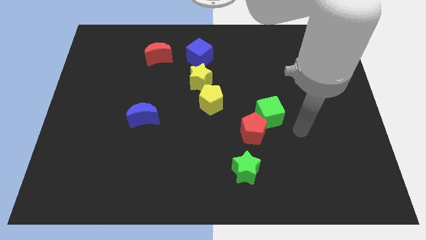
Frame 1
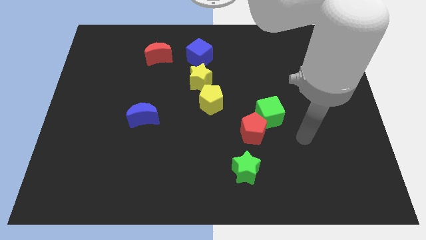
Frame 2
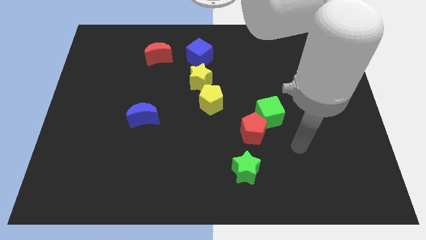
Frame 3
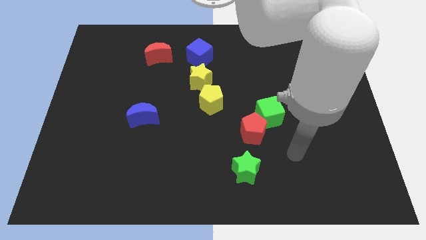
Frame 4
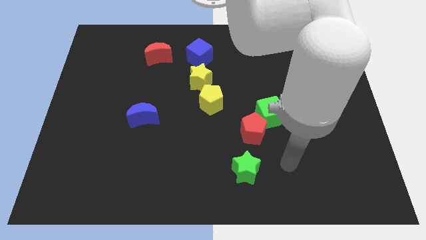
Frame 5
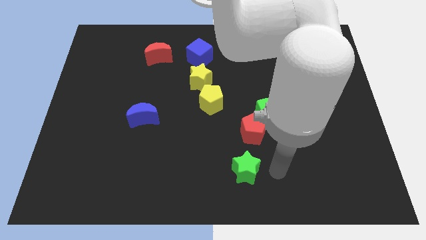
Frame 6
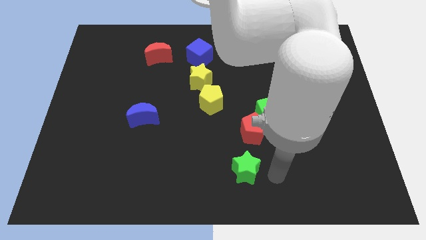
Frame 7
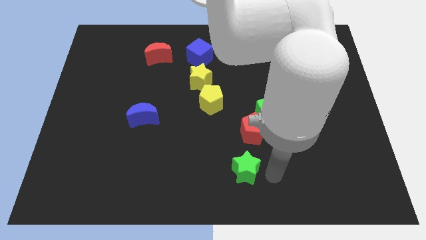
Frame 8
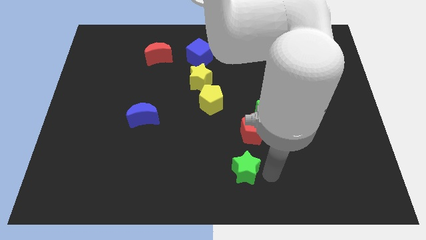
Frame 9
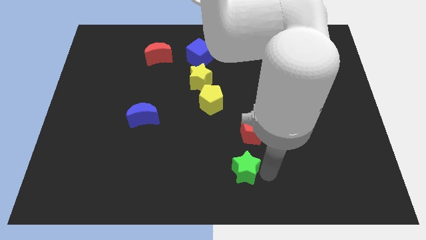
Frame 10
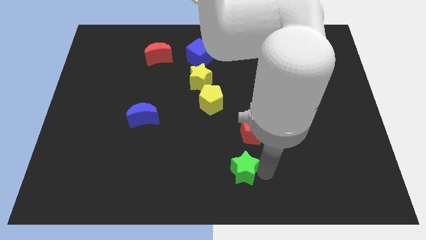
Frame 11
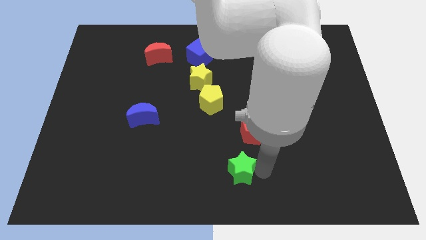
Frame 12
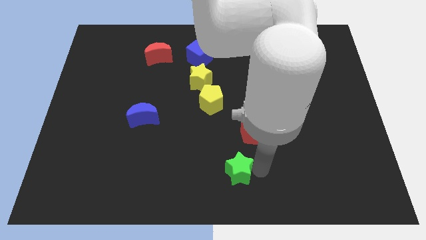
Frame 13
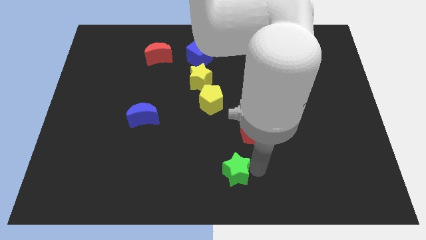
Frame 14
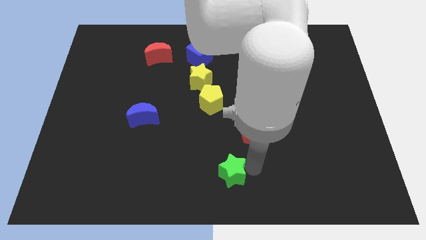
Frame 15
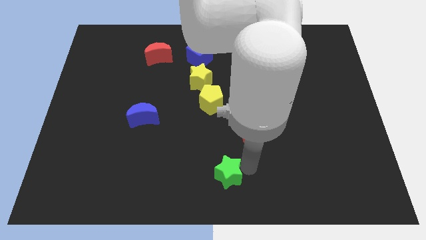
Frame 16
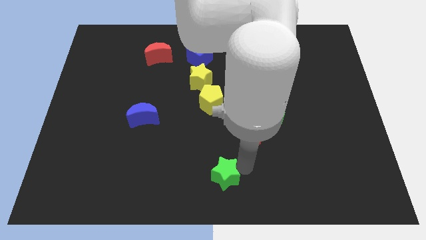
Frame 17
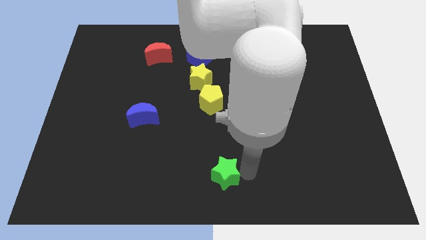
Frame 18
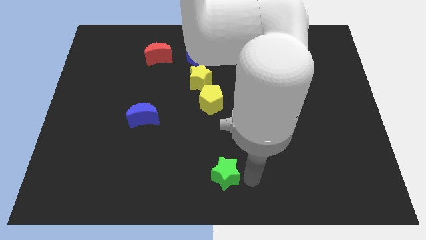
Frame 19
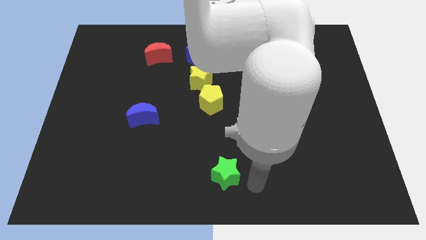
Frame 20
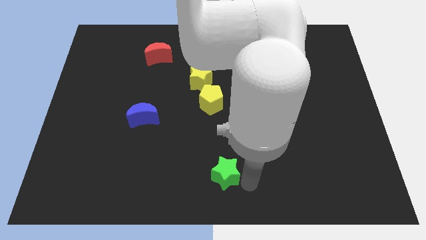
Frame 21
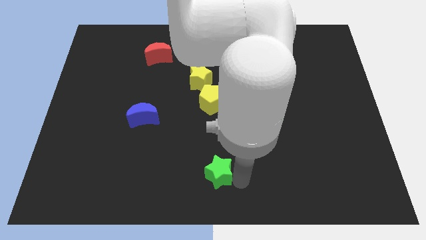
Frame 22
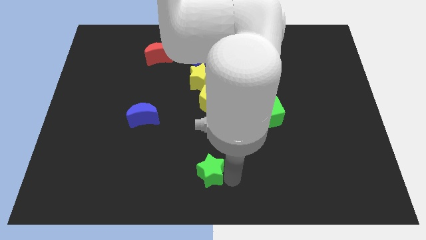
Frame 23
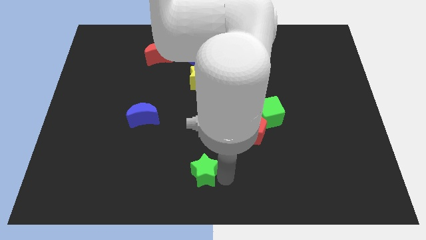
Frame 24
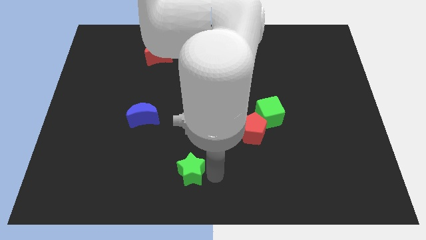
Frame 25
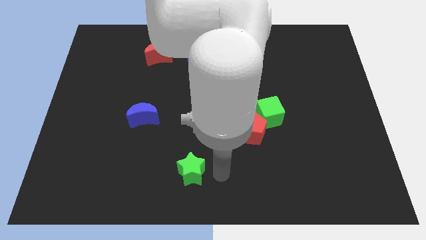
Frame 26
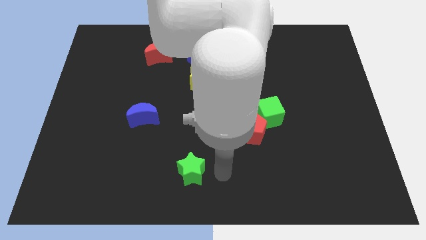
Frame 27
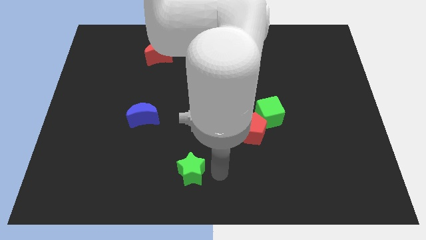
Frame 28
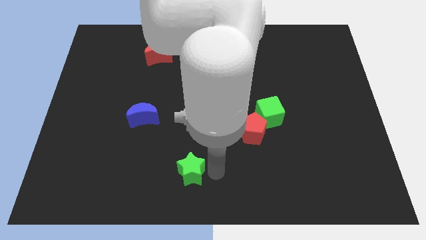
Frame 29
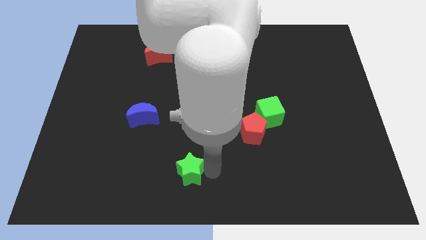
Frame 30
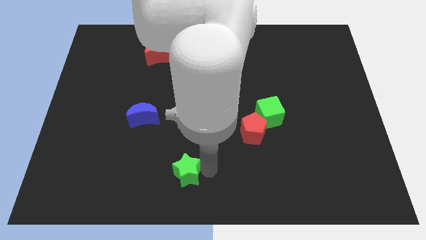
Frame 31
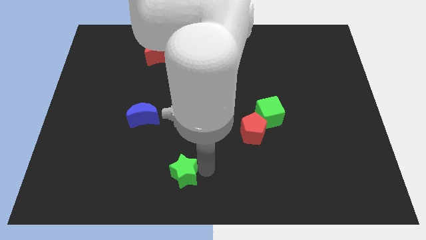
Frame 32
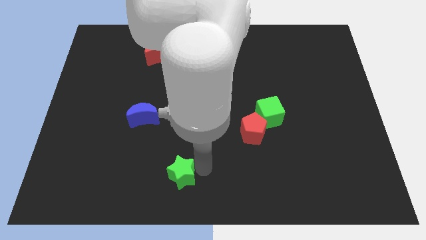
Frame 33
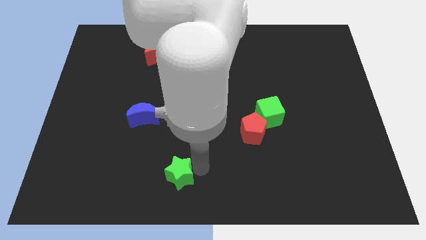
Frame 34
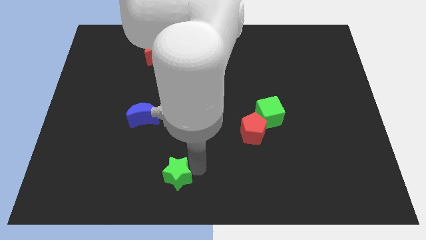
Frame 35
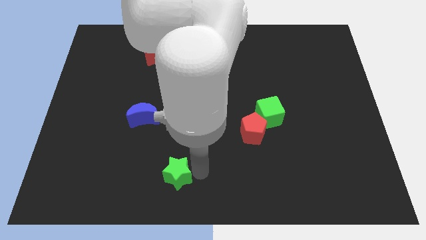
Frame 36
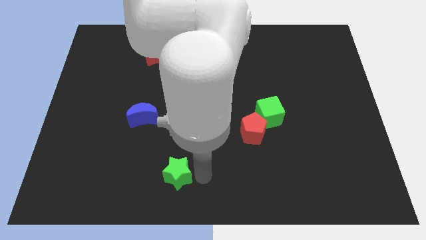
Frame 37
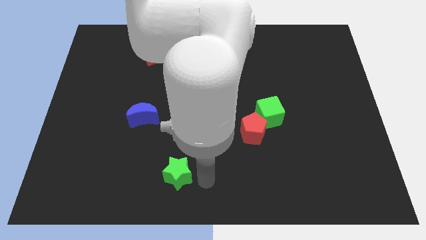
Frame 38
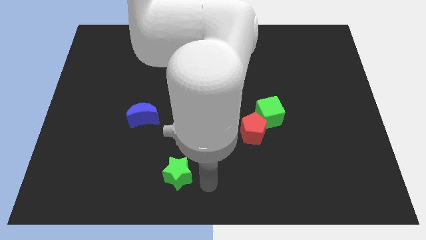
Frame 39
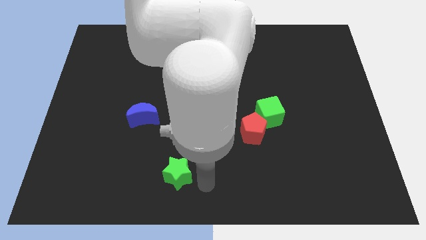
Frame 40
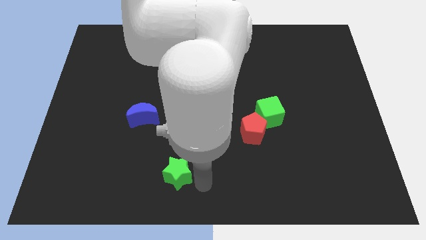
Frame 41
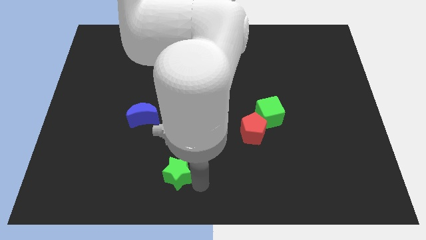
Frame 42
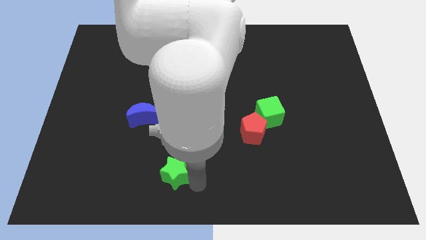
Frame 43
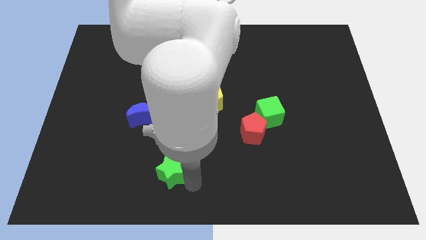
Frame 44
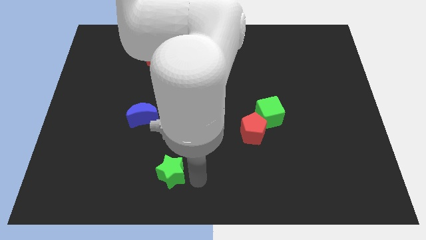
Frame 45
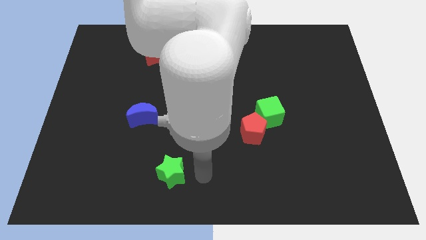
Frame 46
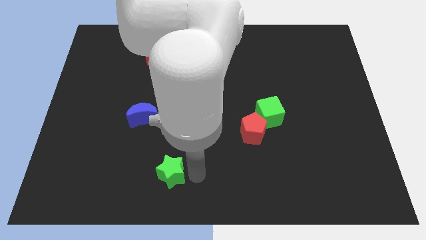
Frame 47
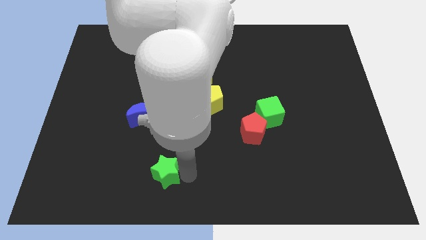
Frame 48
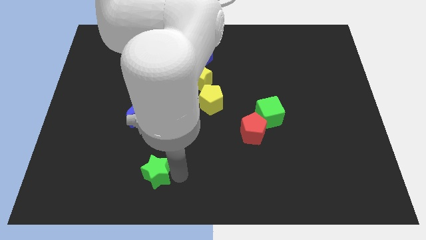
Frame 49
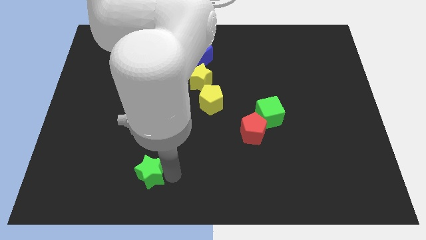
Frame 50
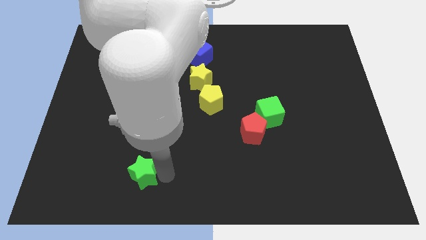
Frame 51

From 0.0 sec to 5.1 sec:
push the green star left

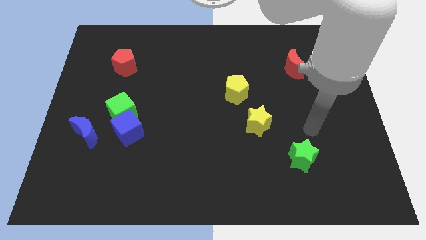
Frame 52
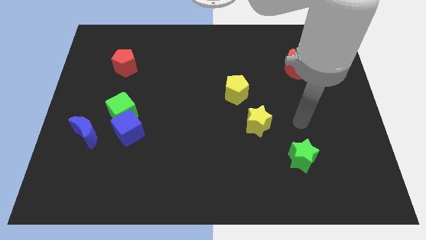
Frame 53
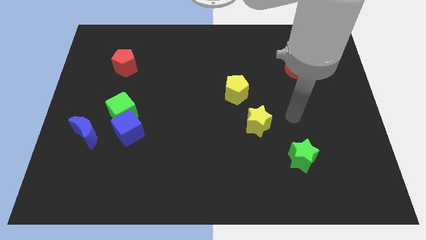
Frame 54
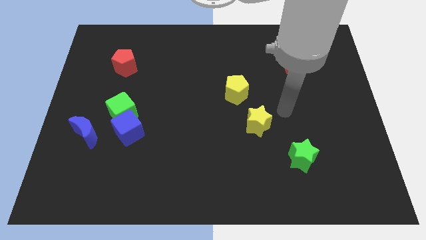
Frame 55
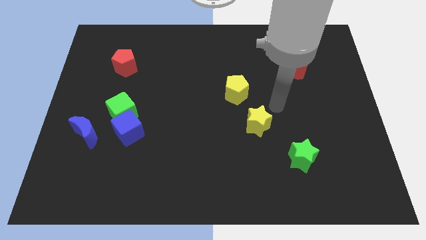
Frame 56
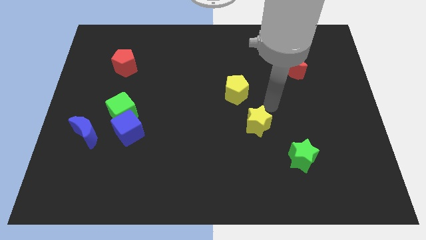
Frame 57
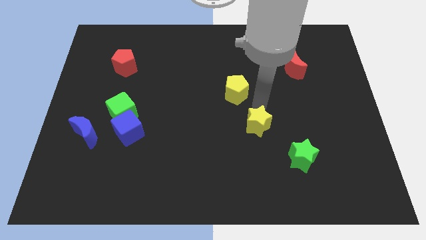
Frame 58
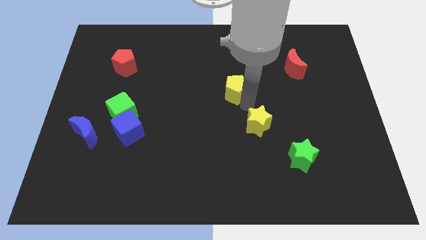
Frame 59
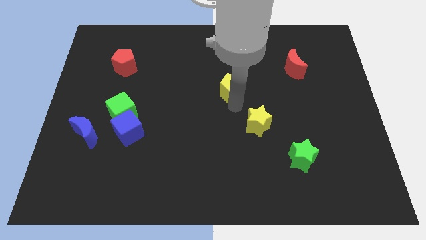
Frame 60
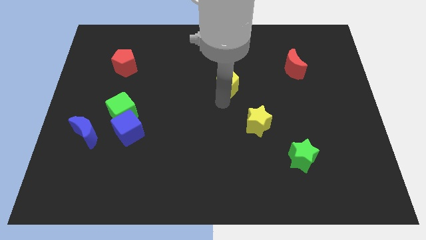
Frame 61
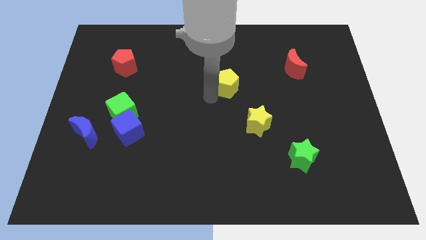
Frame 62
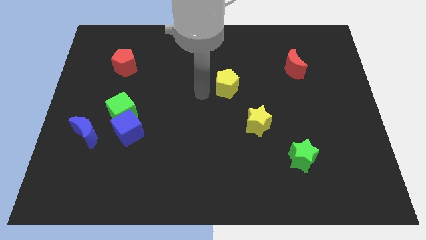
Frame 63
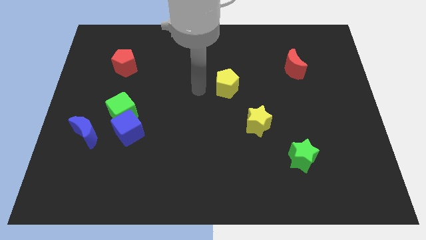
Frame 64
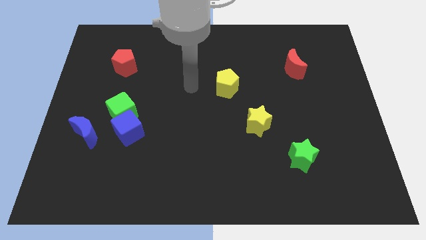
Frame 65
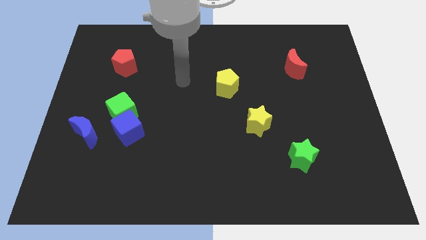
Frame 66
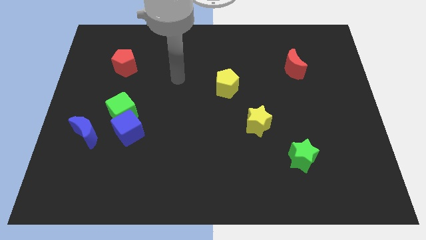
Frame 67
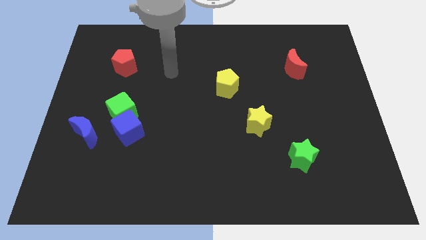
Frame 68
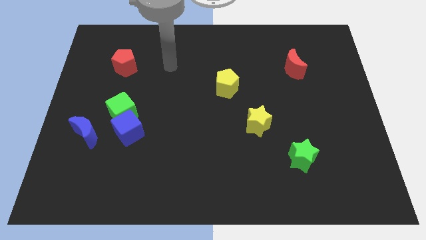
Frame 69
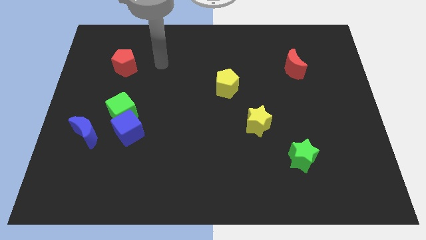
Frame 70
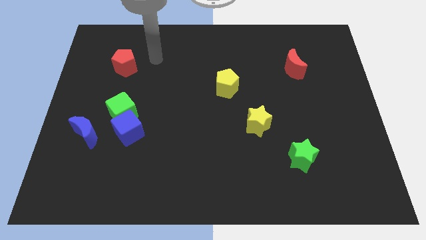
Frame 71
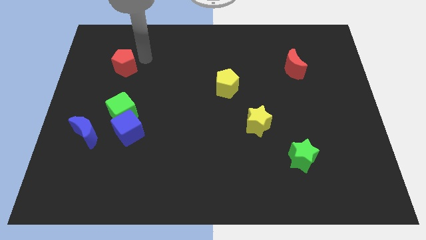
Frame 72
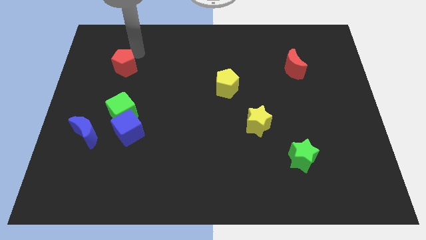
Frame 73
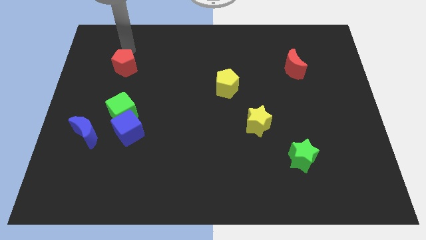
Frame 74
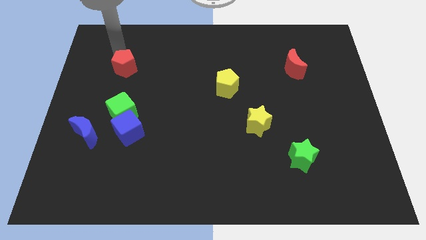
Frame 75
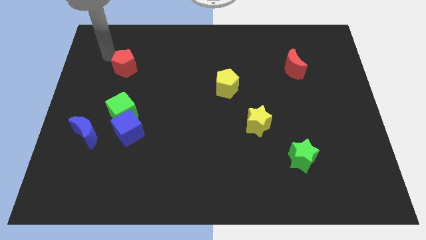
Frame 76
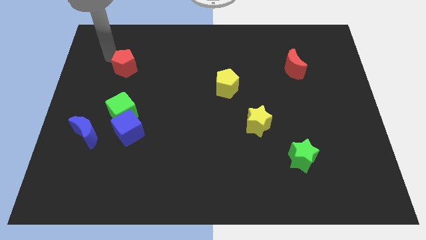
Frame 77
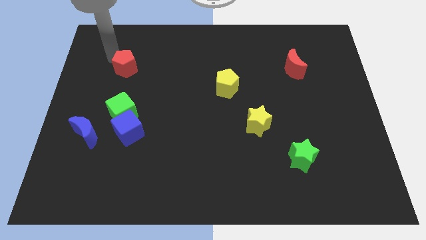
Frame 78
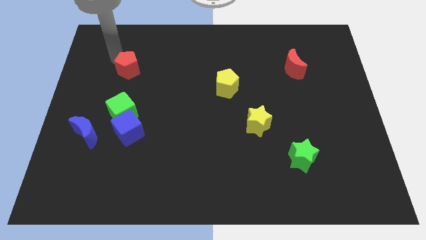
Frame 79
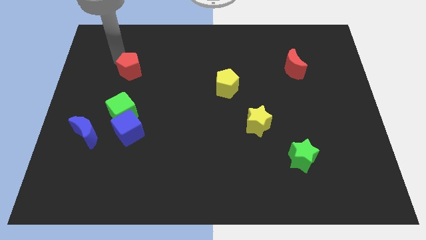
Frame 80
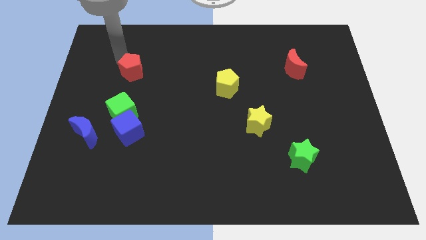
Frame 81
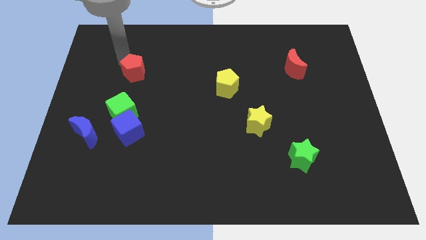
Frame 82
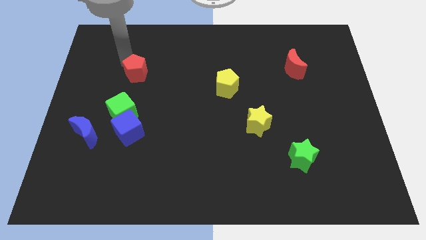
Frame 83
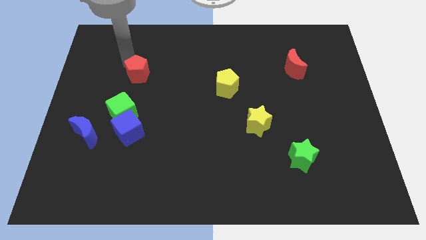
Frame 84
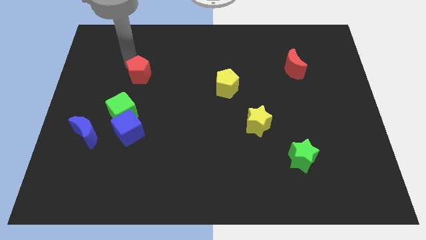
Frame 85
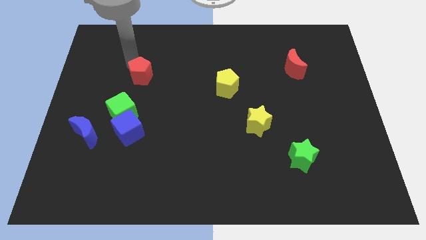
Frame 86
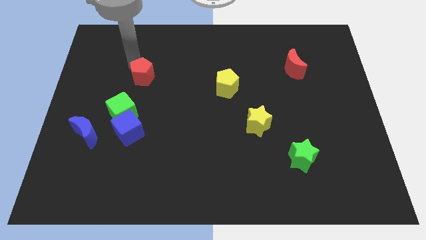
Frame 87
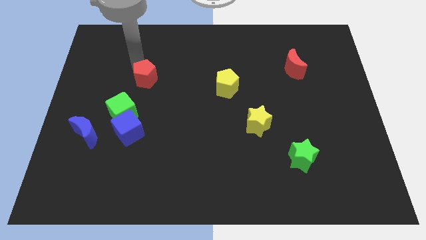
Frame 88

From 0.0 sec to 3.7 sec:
slightly move the red pentagon down and right
